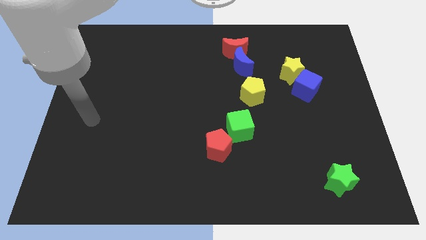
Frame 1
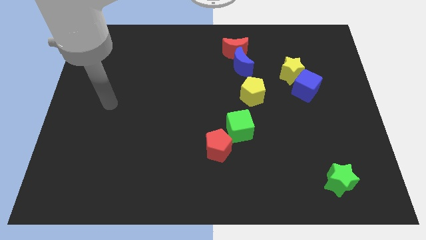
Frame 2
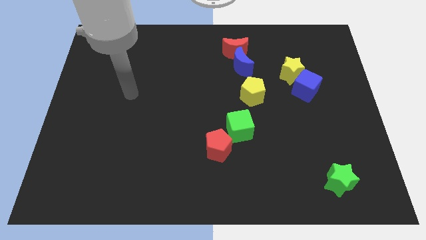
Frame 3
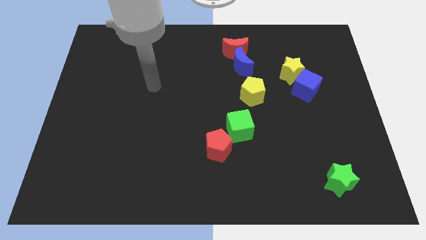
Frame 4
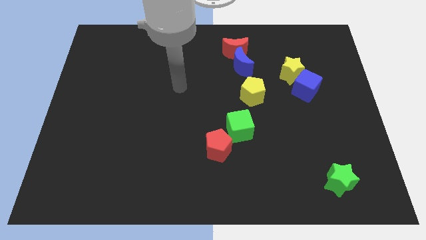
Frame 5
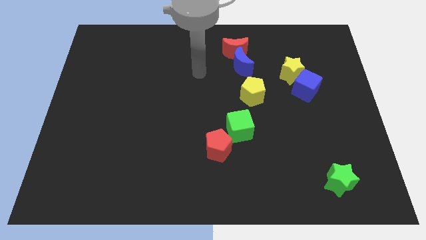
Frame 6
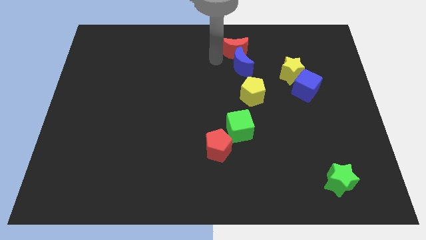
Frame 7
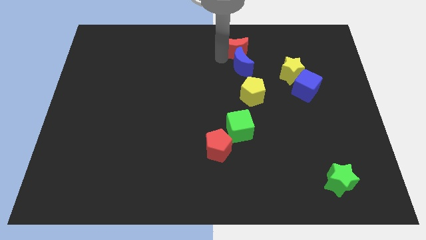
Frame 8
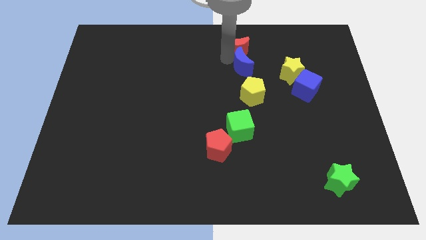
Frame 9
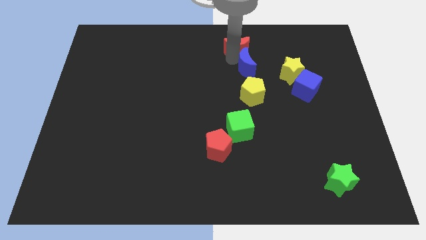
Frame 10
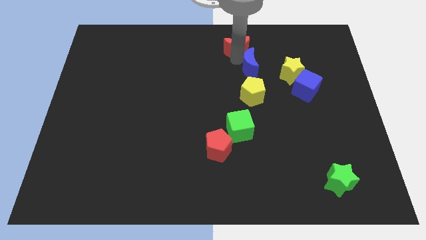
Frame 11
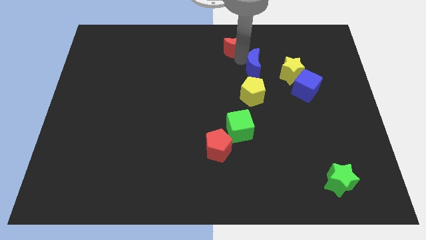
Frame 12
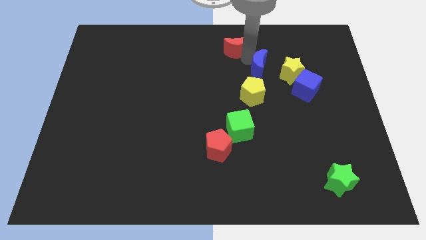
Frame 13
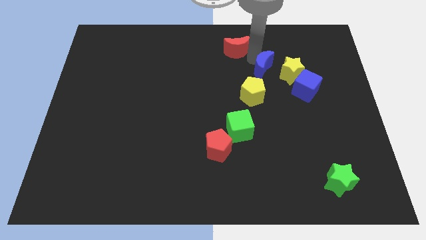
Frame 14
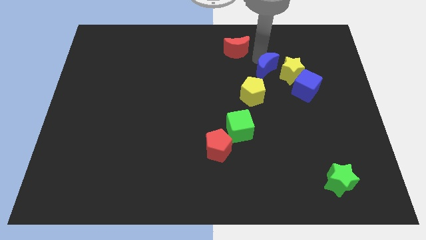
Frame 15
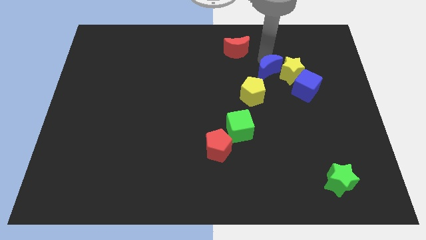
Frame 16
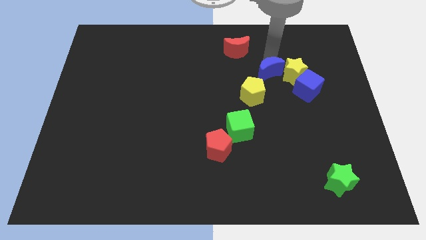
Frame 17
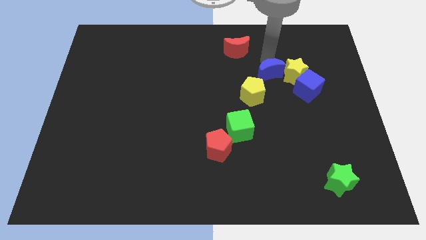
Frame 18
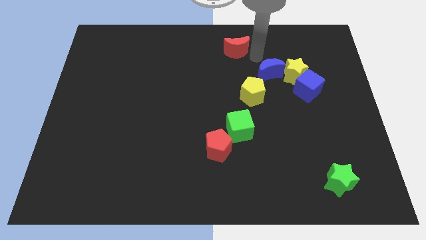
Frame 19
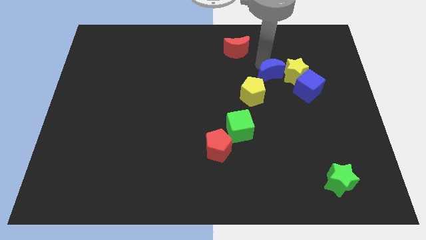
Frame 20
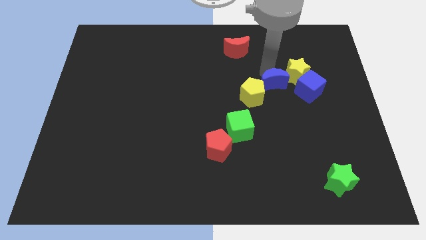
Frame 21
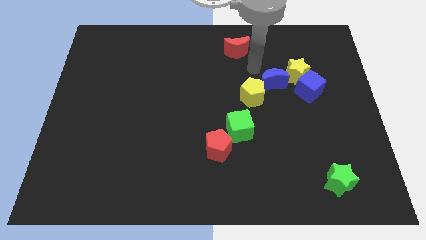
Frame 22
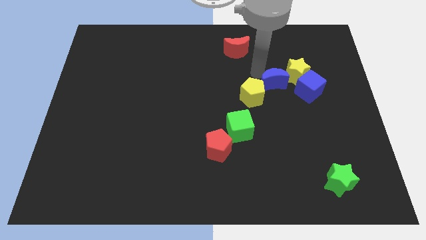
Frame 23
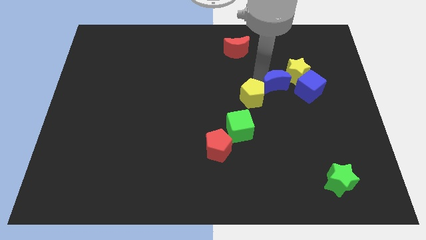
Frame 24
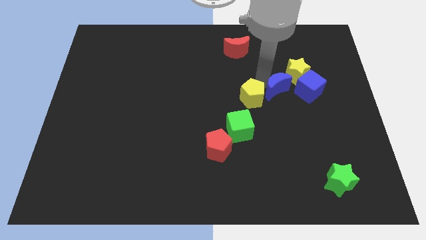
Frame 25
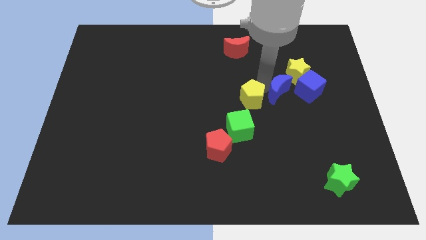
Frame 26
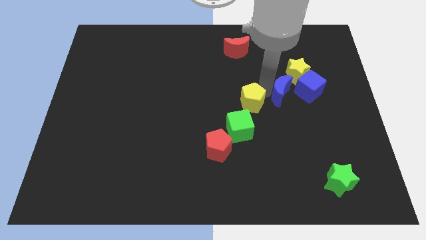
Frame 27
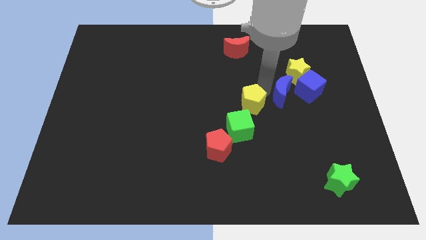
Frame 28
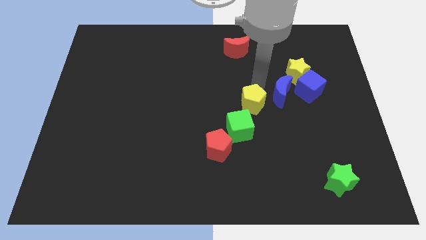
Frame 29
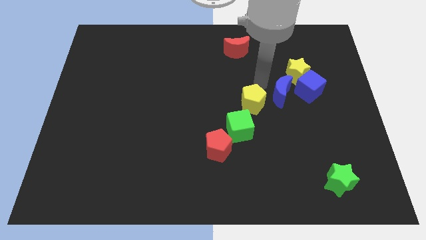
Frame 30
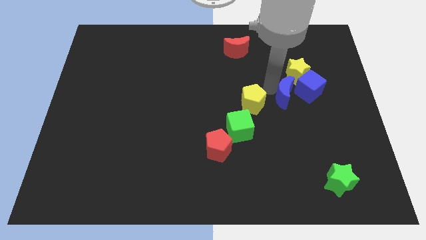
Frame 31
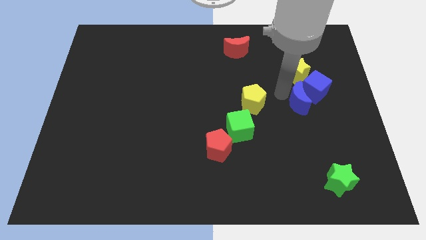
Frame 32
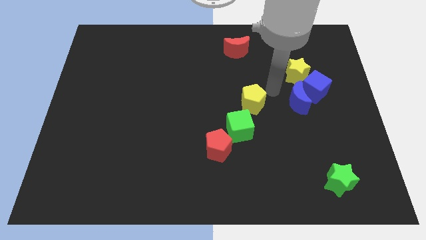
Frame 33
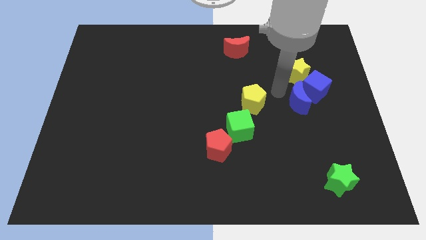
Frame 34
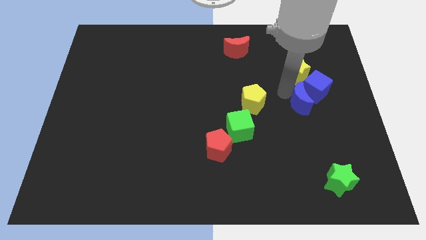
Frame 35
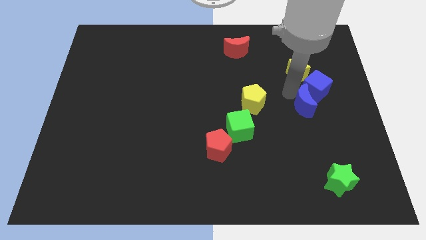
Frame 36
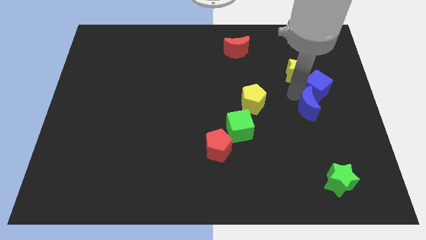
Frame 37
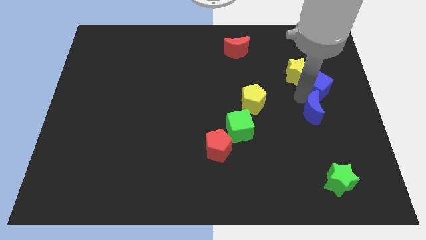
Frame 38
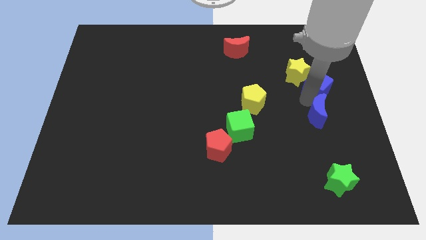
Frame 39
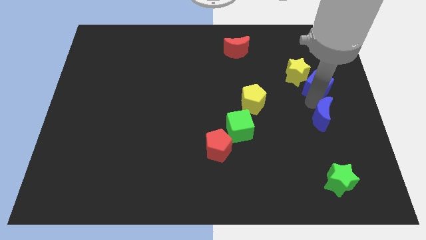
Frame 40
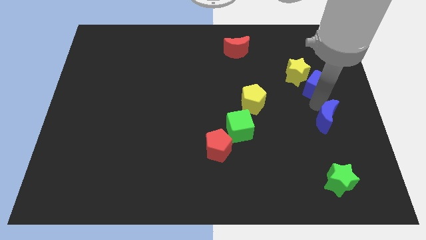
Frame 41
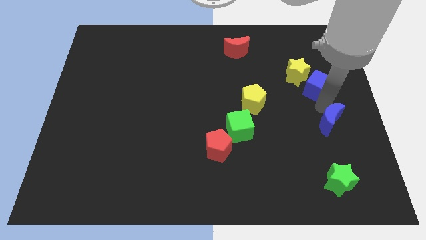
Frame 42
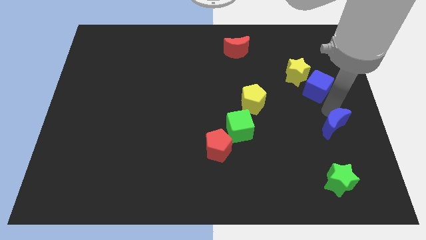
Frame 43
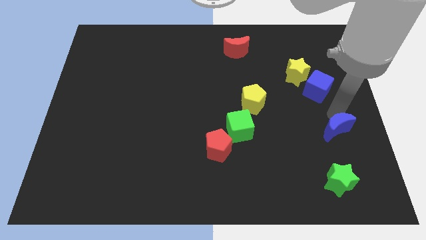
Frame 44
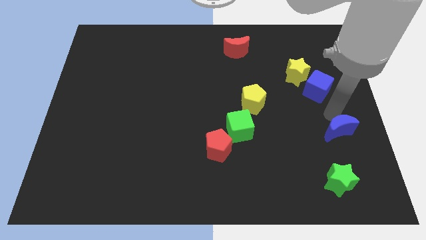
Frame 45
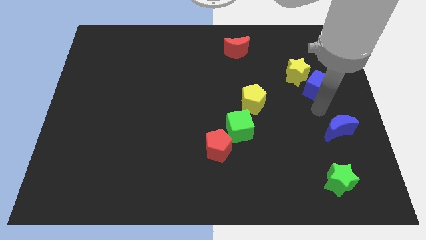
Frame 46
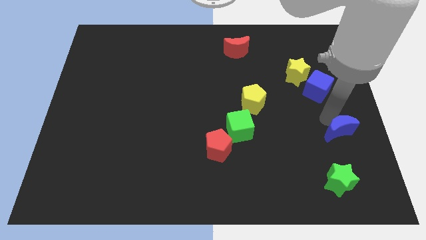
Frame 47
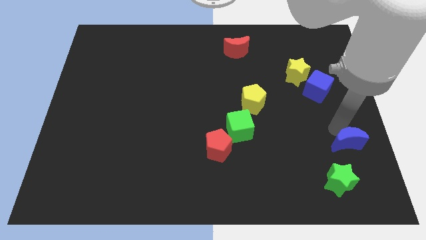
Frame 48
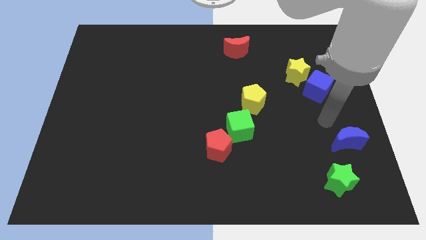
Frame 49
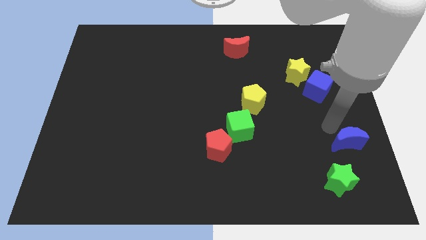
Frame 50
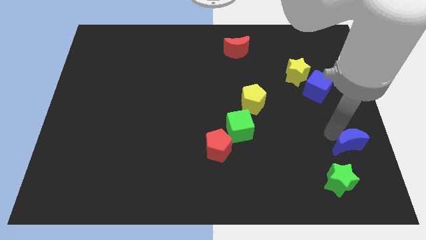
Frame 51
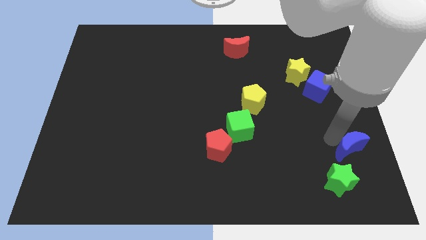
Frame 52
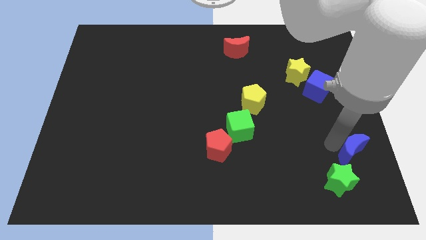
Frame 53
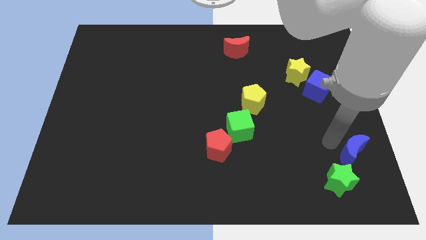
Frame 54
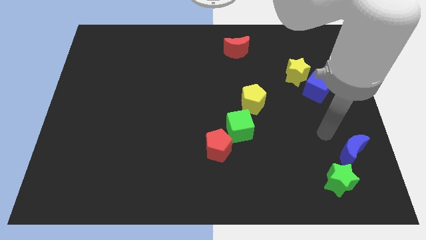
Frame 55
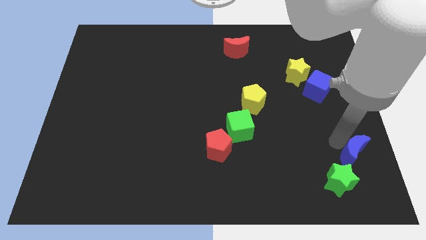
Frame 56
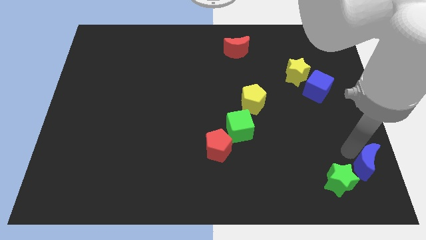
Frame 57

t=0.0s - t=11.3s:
push the blue moon to the lower right corner
